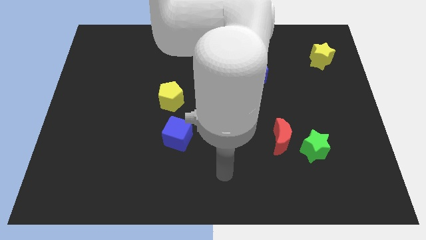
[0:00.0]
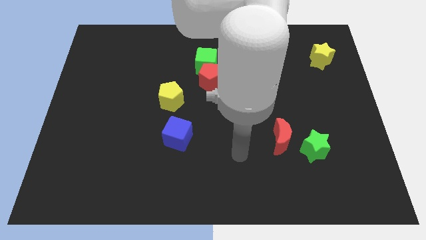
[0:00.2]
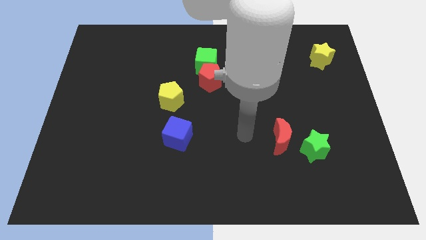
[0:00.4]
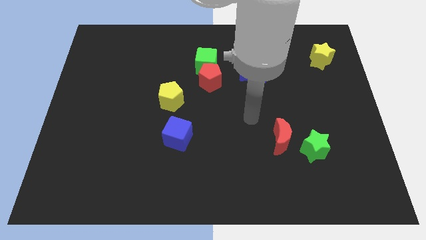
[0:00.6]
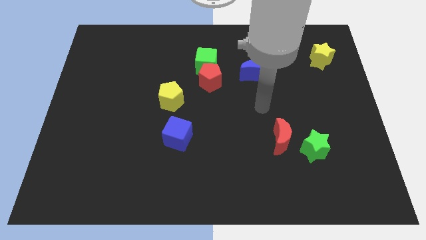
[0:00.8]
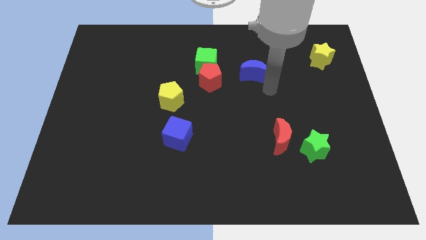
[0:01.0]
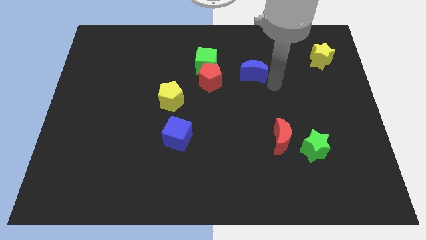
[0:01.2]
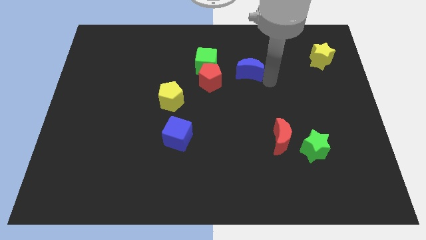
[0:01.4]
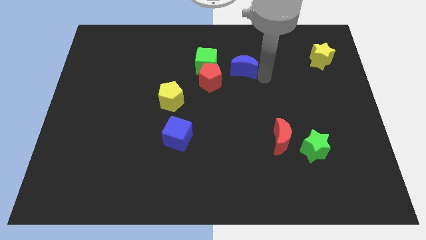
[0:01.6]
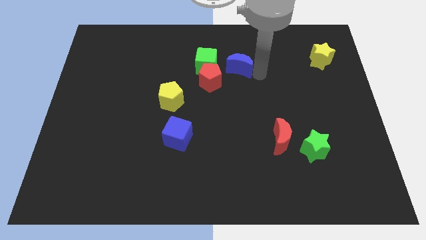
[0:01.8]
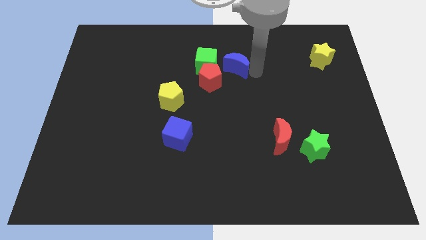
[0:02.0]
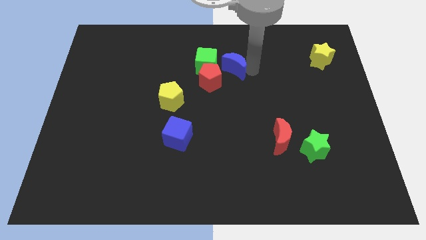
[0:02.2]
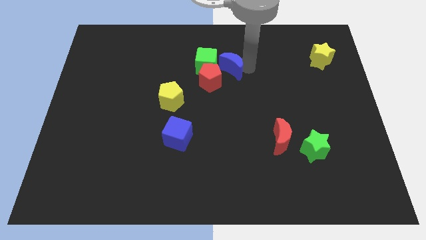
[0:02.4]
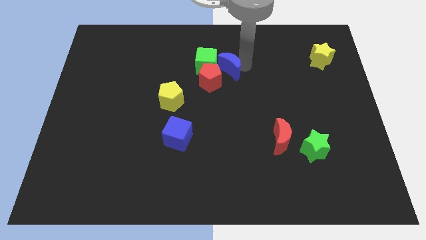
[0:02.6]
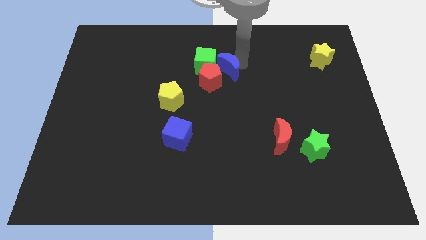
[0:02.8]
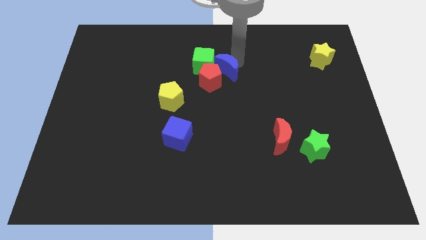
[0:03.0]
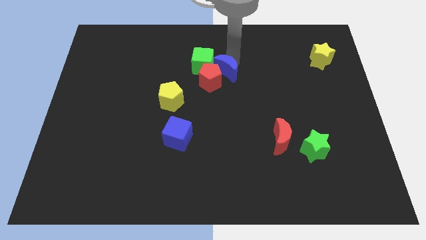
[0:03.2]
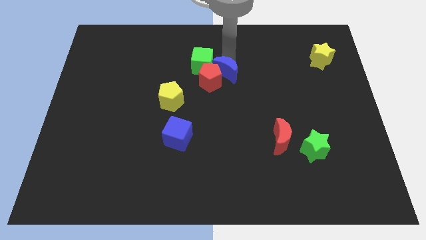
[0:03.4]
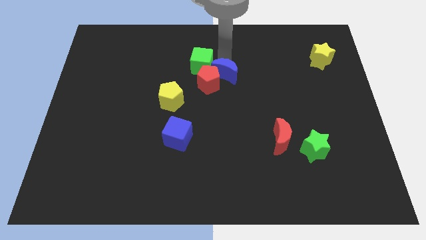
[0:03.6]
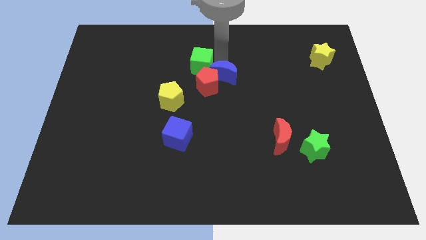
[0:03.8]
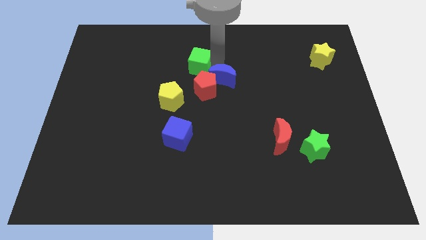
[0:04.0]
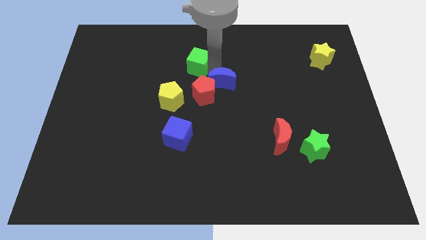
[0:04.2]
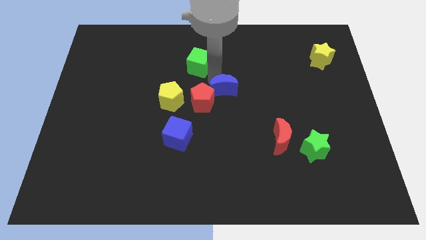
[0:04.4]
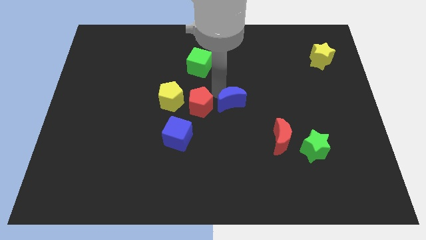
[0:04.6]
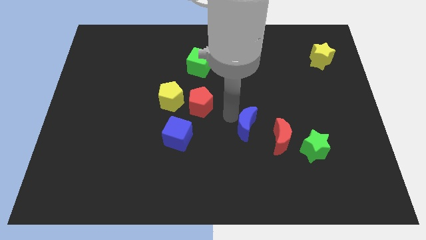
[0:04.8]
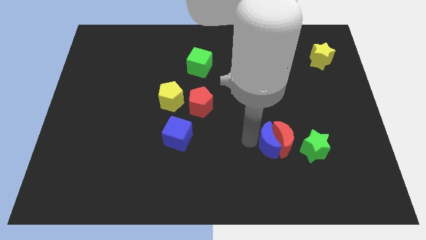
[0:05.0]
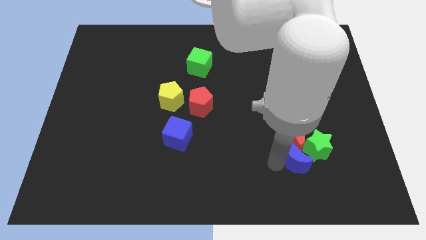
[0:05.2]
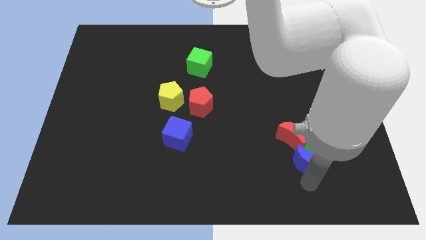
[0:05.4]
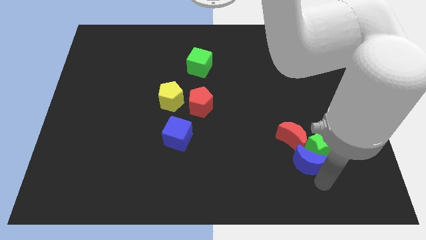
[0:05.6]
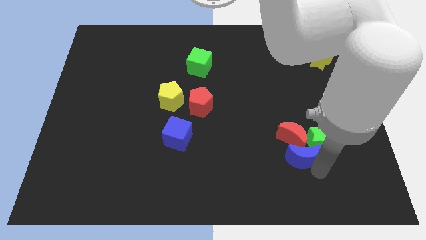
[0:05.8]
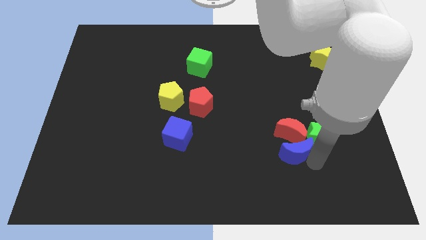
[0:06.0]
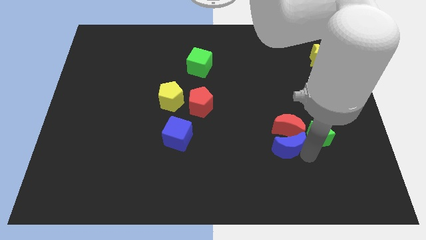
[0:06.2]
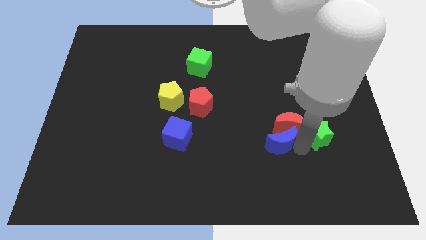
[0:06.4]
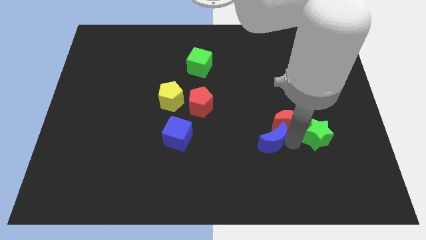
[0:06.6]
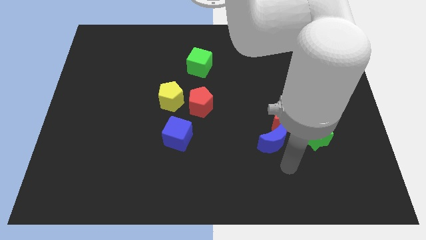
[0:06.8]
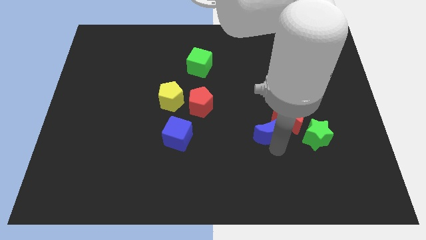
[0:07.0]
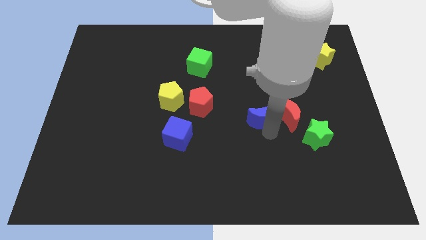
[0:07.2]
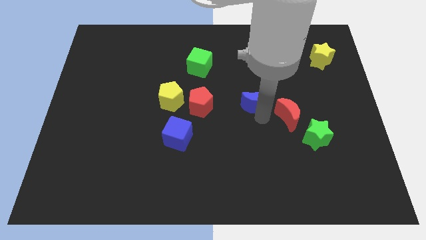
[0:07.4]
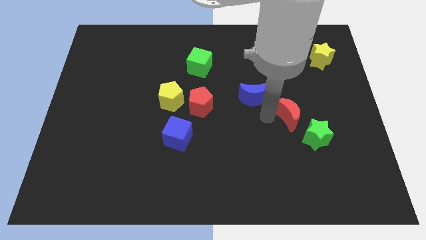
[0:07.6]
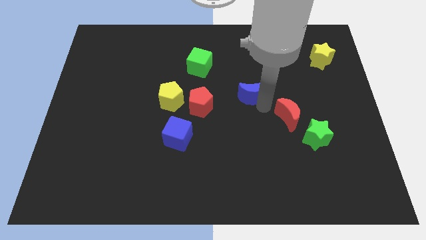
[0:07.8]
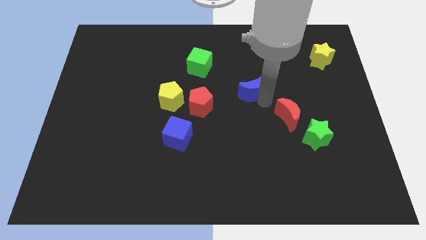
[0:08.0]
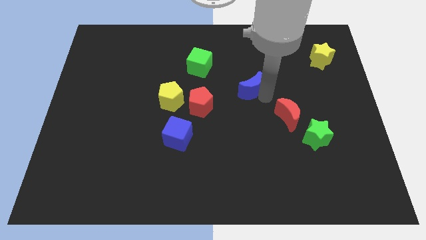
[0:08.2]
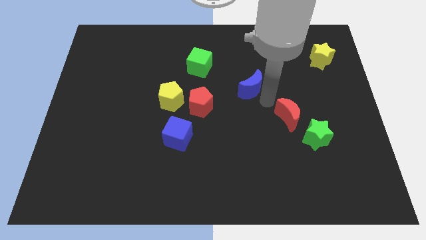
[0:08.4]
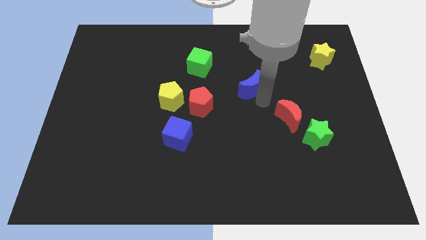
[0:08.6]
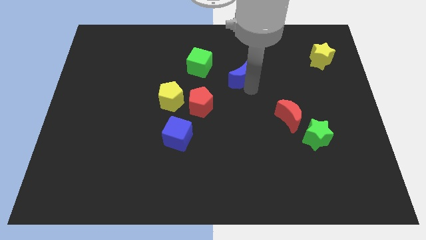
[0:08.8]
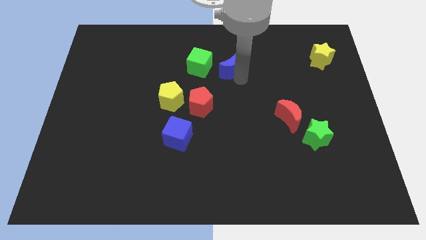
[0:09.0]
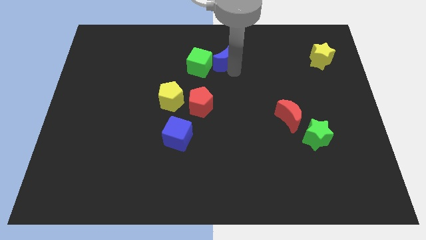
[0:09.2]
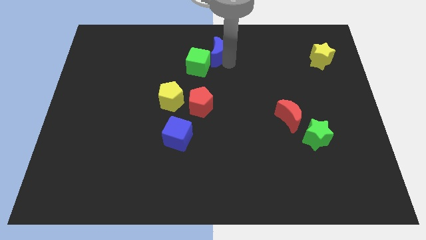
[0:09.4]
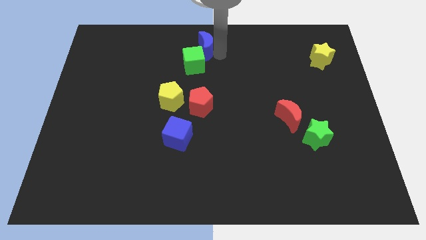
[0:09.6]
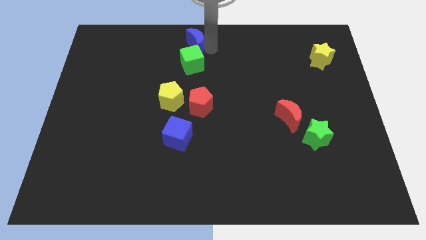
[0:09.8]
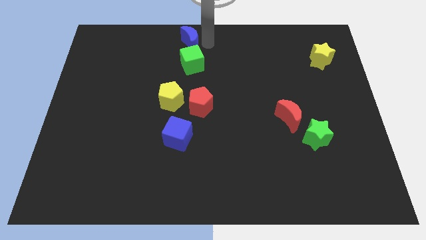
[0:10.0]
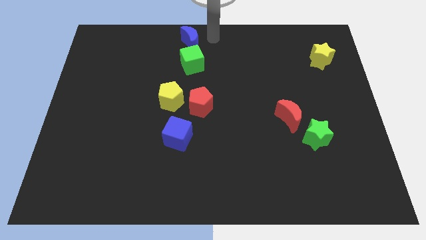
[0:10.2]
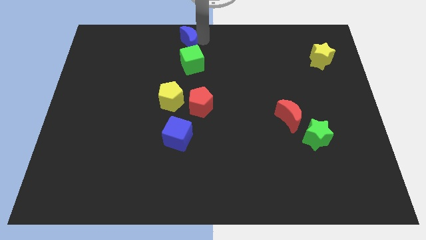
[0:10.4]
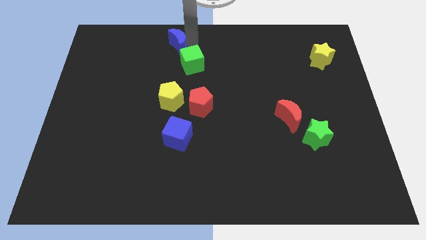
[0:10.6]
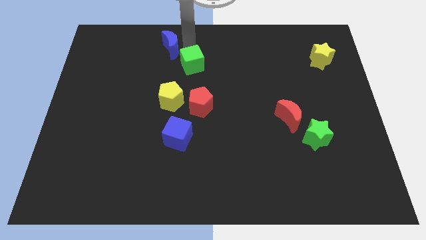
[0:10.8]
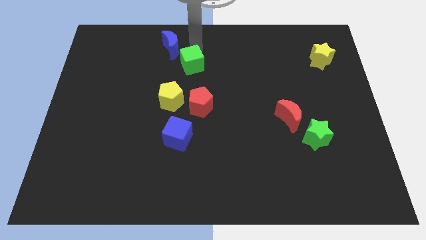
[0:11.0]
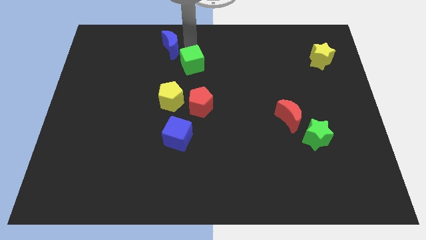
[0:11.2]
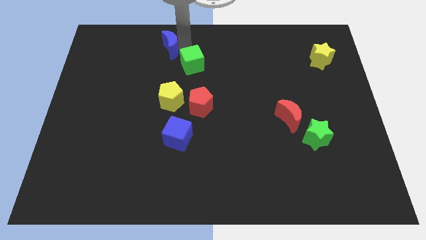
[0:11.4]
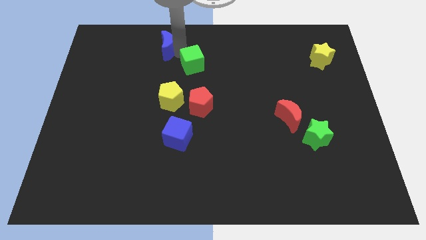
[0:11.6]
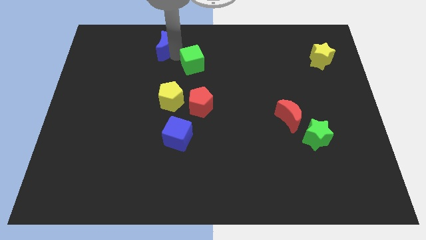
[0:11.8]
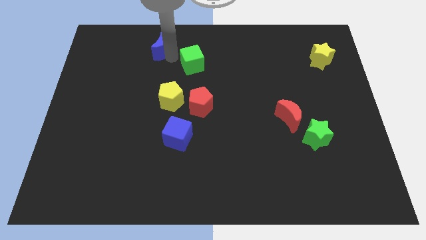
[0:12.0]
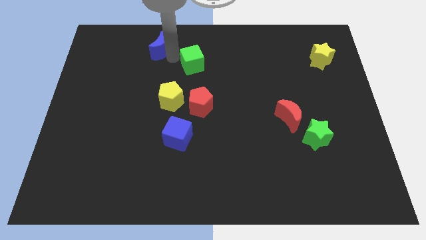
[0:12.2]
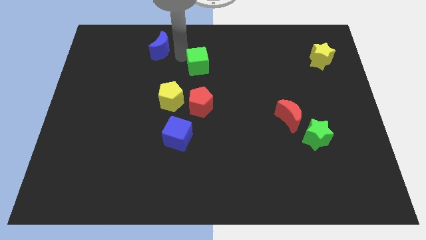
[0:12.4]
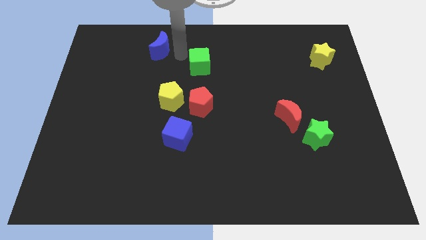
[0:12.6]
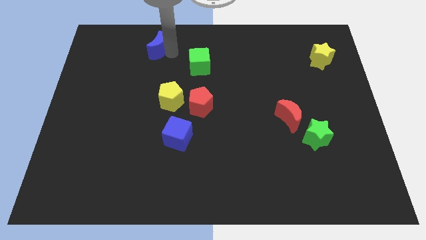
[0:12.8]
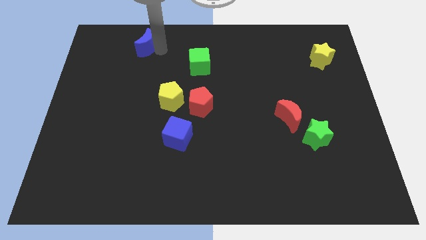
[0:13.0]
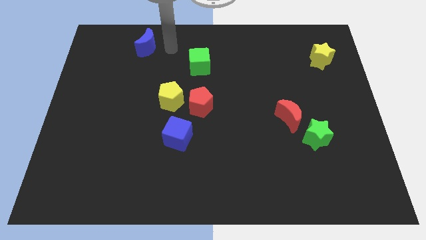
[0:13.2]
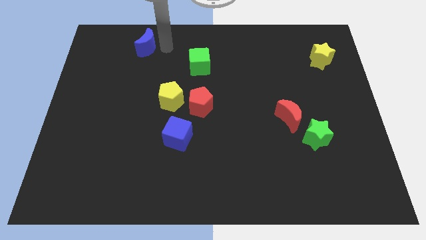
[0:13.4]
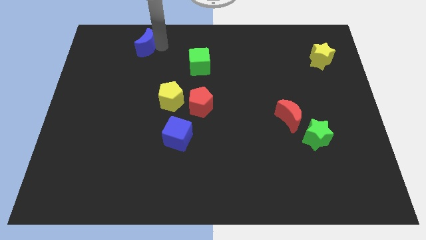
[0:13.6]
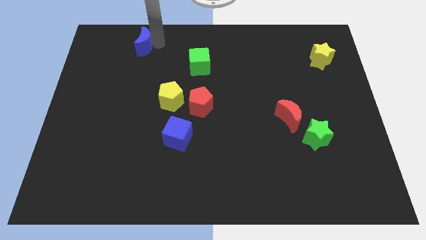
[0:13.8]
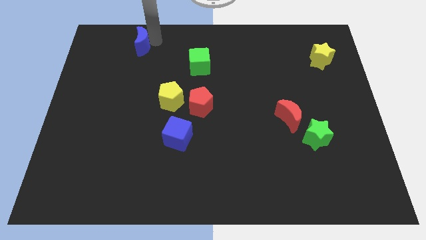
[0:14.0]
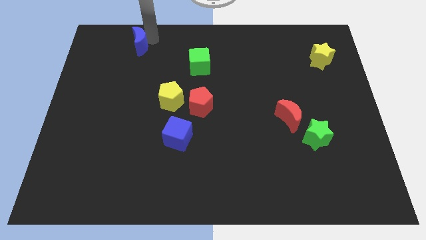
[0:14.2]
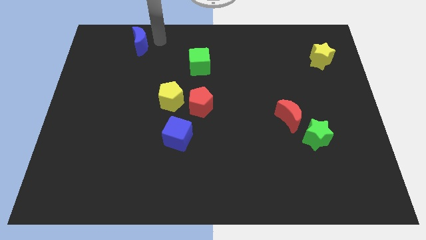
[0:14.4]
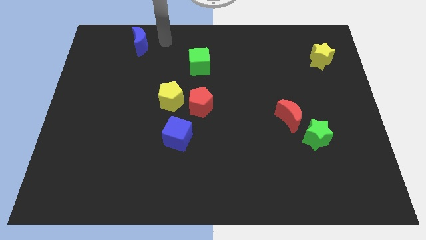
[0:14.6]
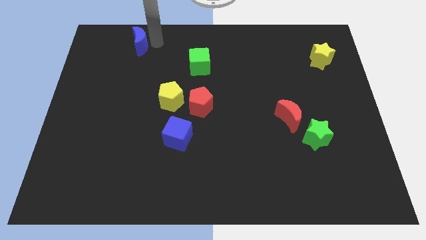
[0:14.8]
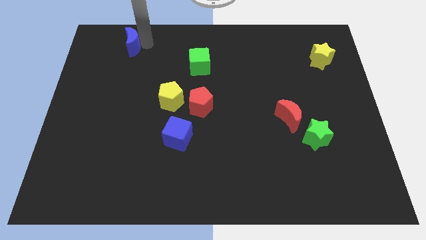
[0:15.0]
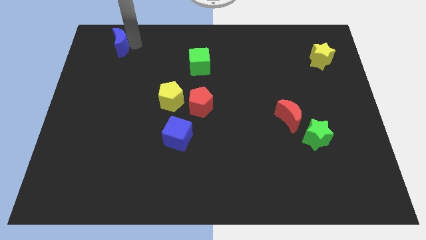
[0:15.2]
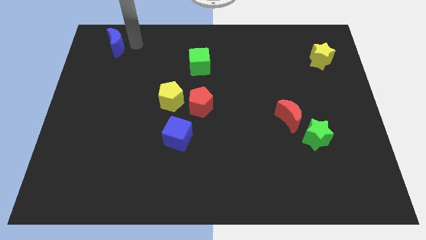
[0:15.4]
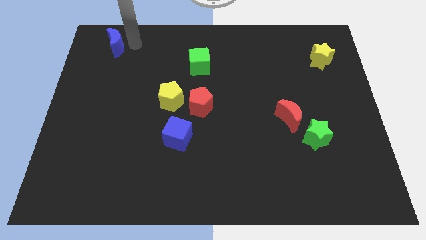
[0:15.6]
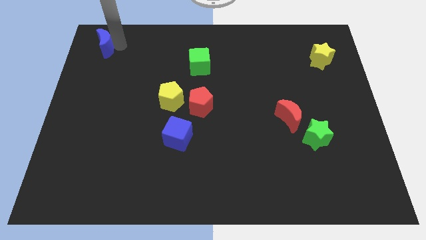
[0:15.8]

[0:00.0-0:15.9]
slide the blue moon to the top left corner
